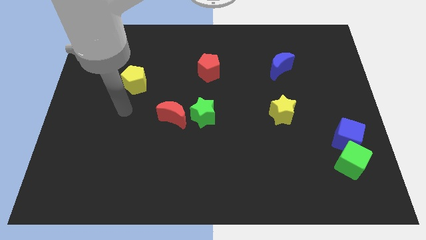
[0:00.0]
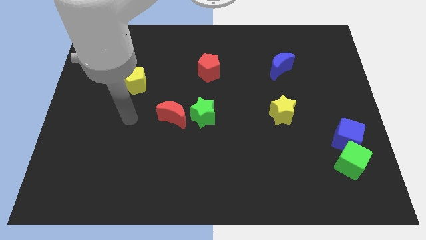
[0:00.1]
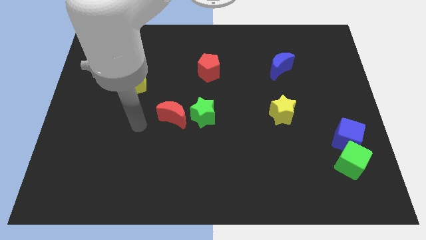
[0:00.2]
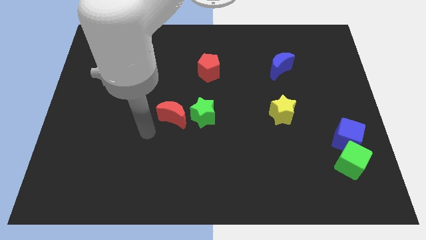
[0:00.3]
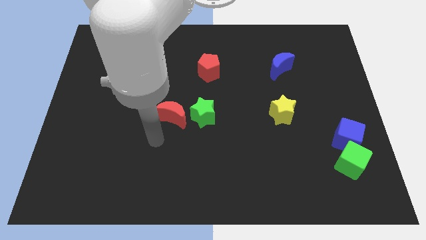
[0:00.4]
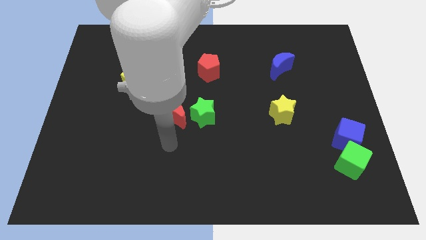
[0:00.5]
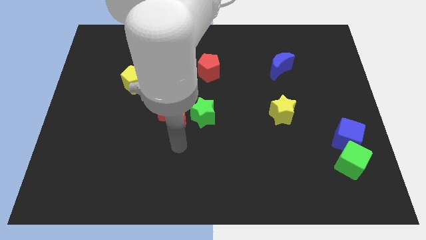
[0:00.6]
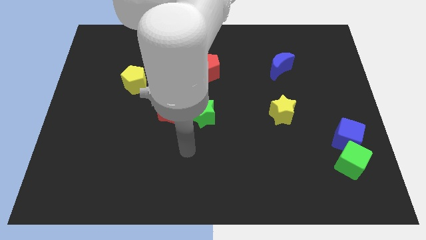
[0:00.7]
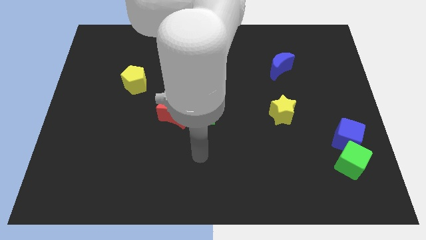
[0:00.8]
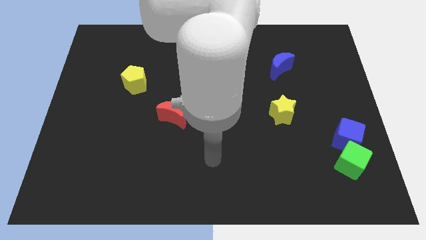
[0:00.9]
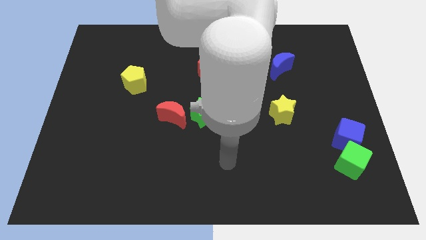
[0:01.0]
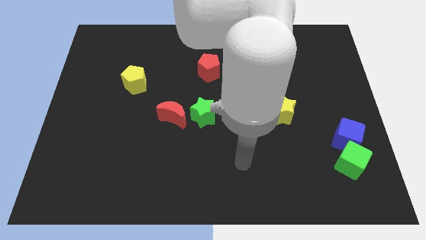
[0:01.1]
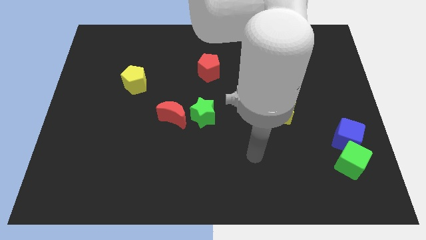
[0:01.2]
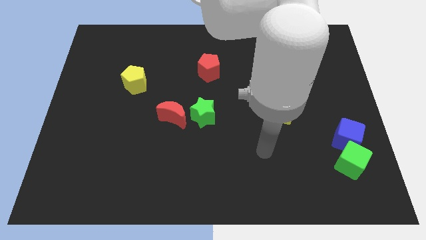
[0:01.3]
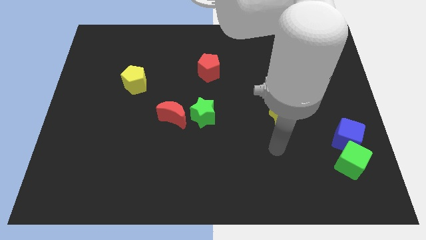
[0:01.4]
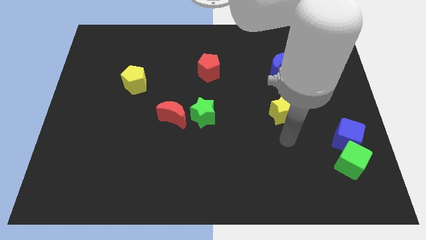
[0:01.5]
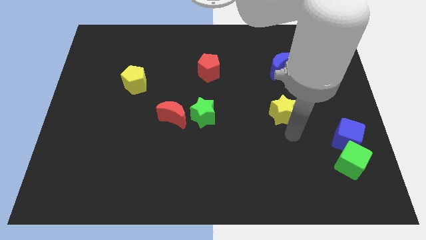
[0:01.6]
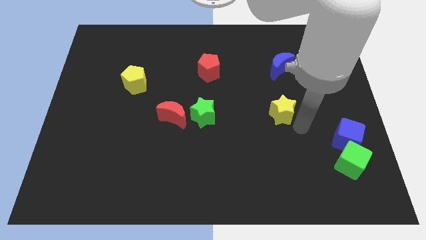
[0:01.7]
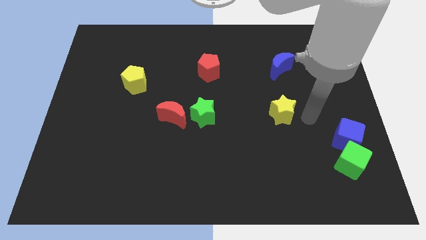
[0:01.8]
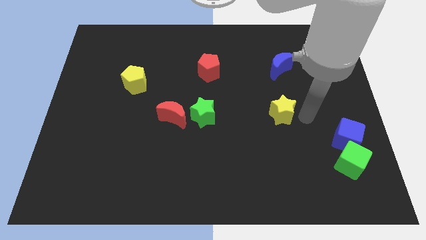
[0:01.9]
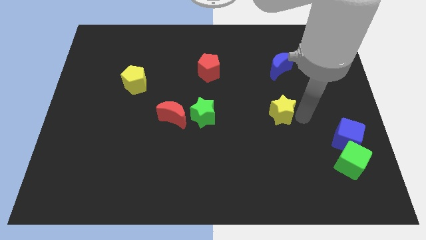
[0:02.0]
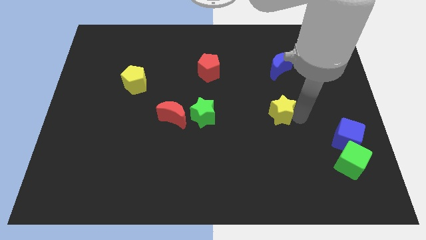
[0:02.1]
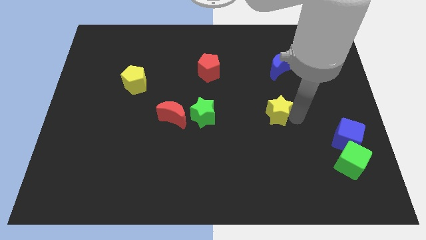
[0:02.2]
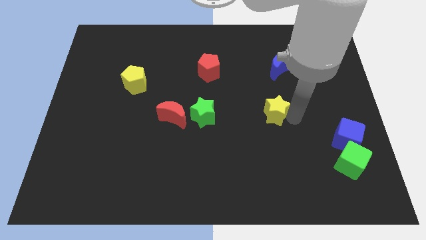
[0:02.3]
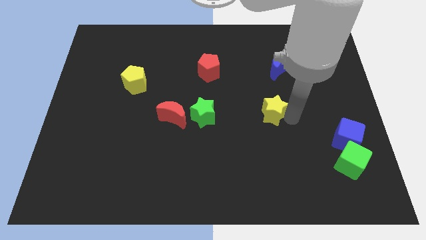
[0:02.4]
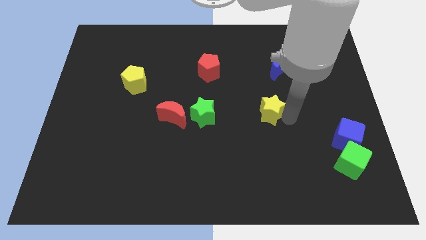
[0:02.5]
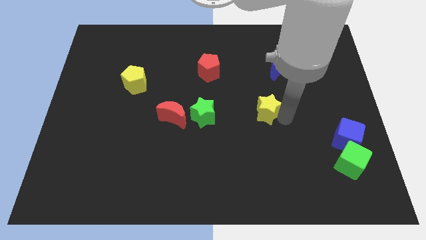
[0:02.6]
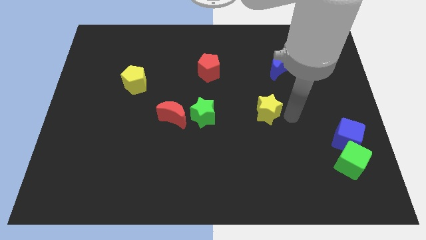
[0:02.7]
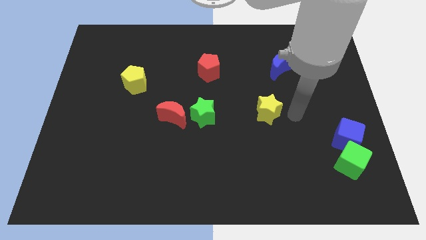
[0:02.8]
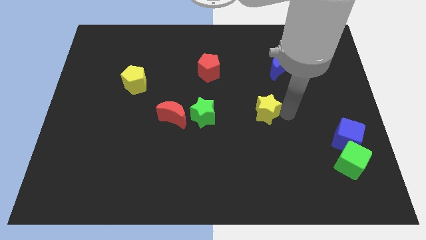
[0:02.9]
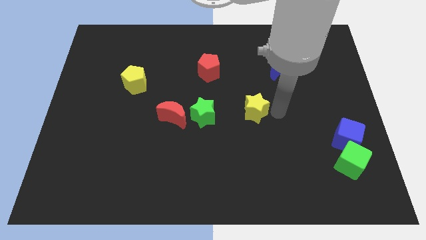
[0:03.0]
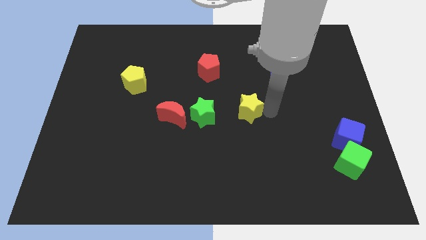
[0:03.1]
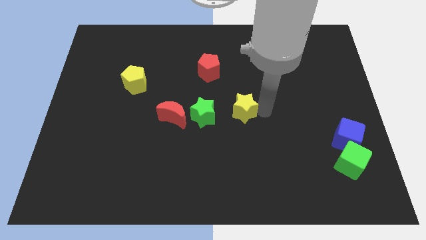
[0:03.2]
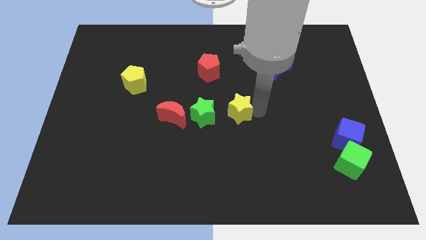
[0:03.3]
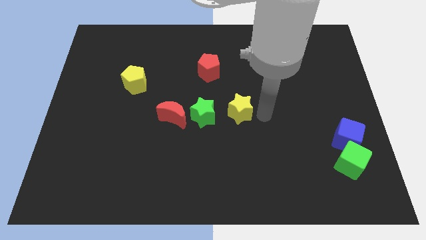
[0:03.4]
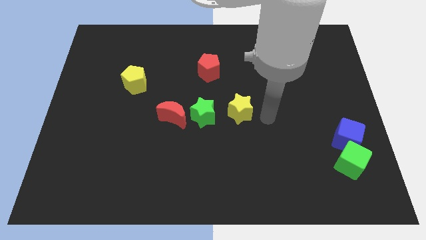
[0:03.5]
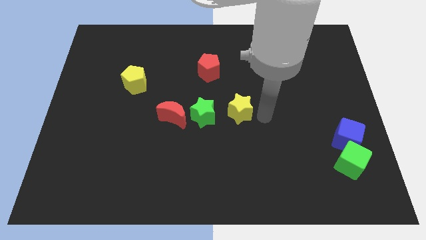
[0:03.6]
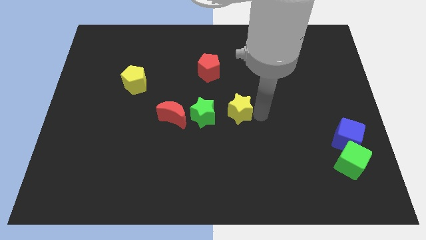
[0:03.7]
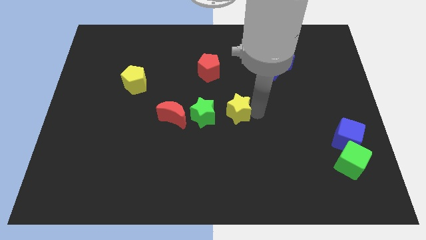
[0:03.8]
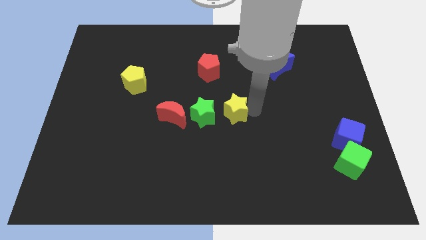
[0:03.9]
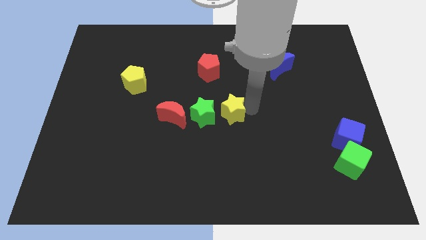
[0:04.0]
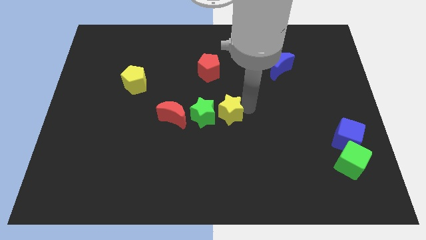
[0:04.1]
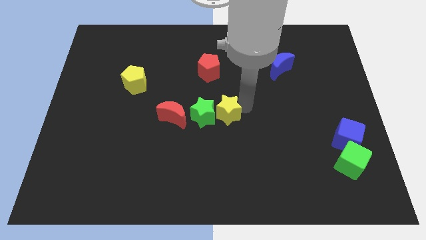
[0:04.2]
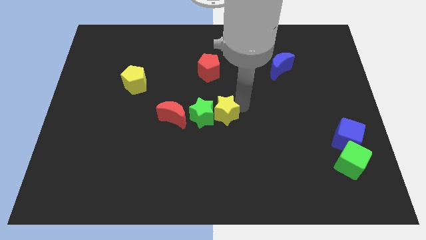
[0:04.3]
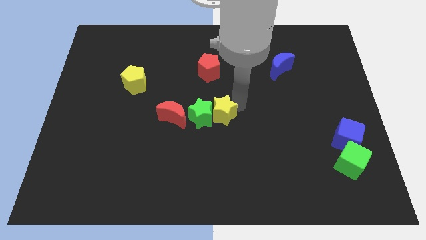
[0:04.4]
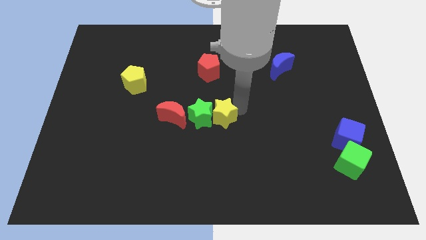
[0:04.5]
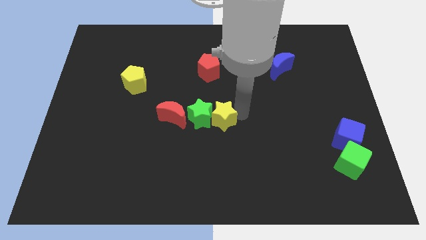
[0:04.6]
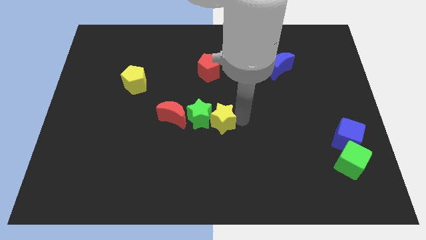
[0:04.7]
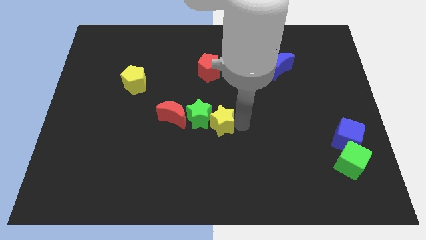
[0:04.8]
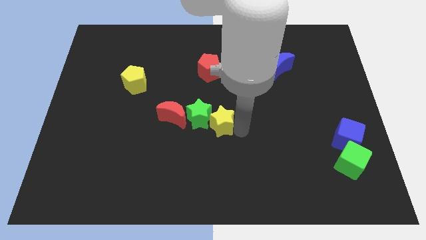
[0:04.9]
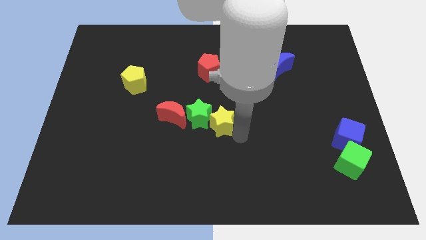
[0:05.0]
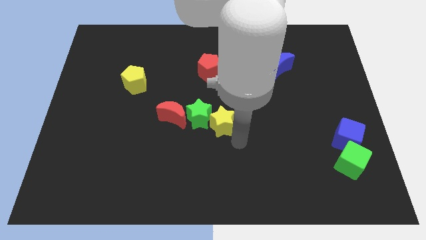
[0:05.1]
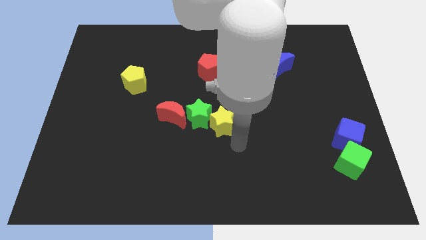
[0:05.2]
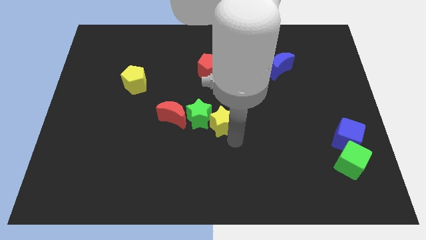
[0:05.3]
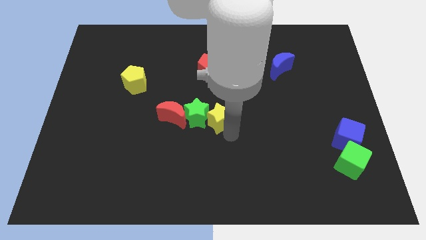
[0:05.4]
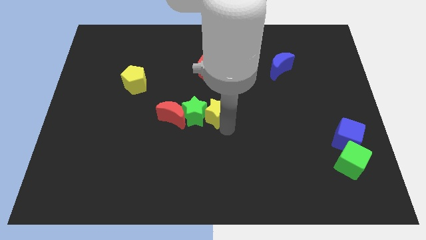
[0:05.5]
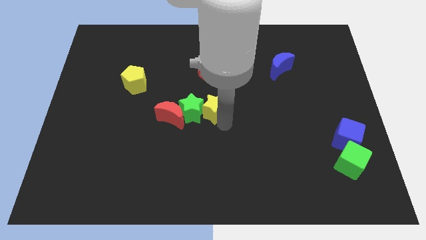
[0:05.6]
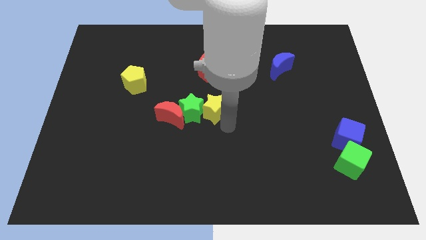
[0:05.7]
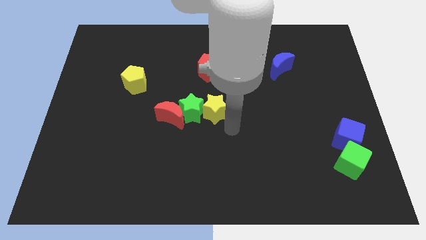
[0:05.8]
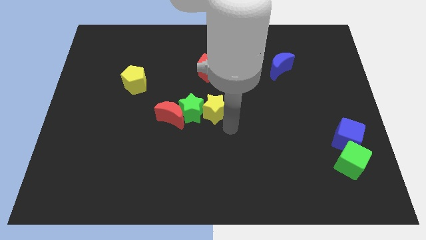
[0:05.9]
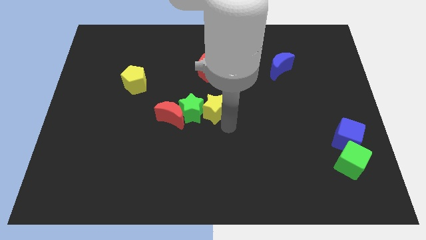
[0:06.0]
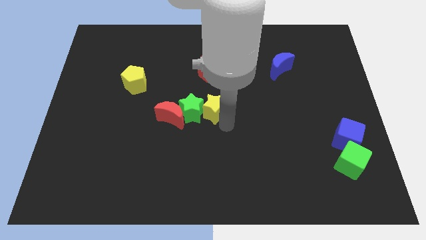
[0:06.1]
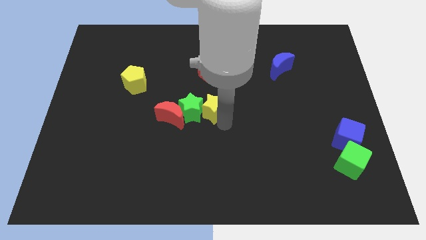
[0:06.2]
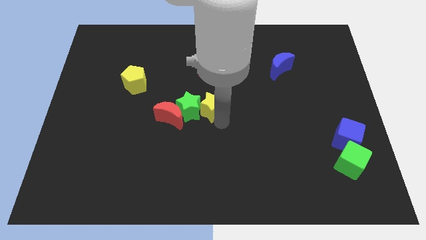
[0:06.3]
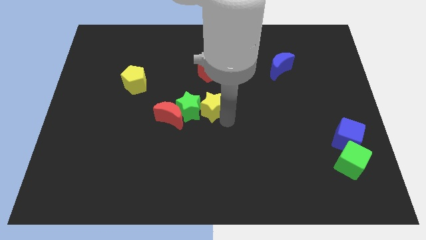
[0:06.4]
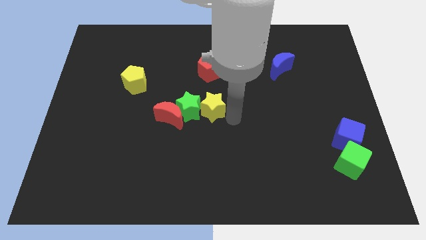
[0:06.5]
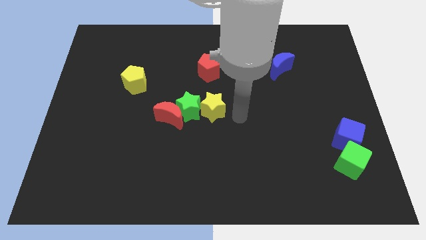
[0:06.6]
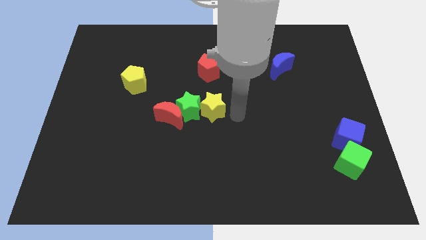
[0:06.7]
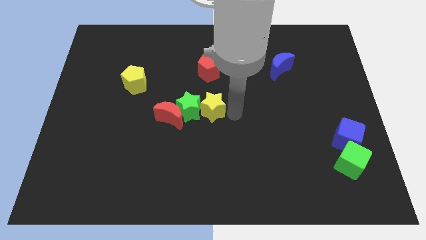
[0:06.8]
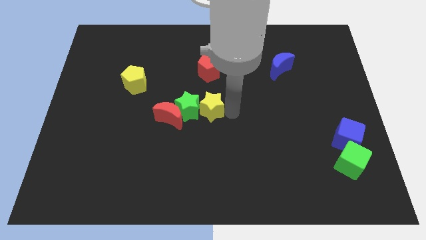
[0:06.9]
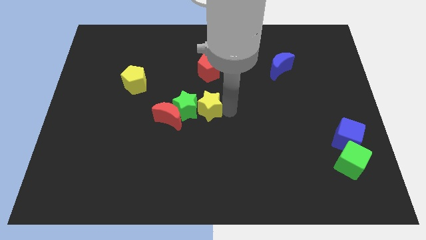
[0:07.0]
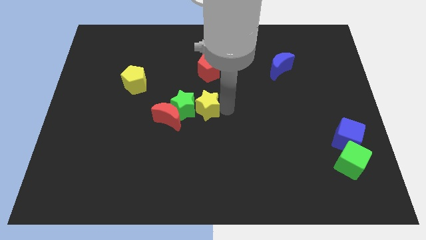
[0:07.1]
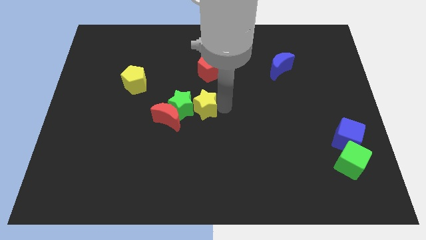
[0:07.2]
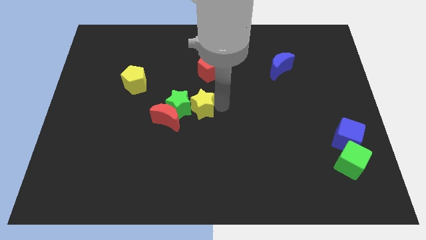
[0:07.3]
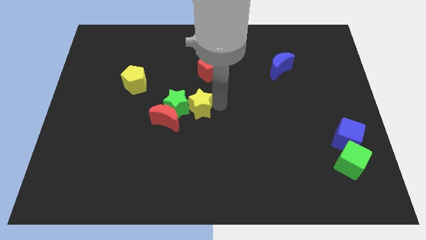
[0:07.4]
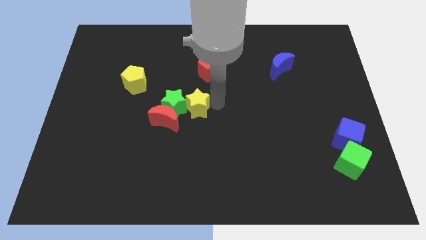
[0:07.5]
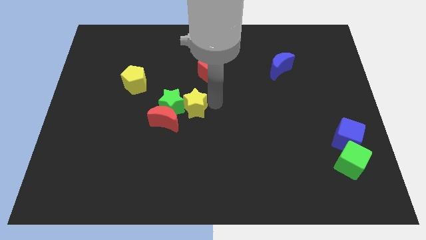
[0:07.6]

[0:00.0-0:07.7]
move the yellow star to the left
